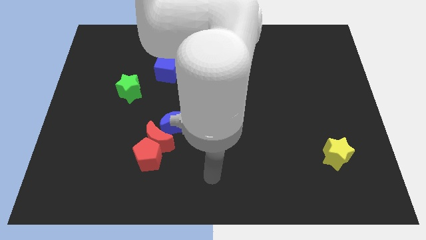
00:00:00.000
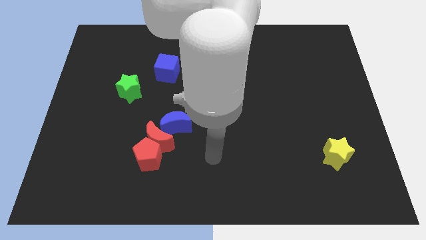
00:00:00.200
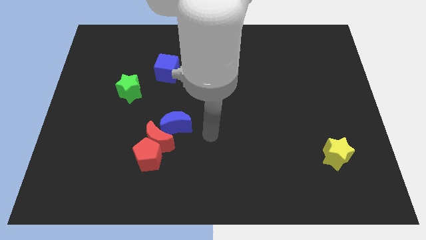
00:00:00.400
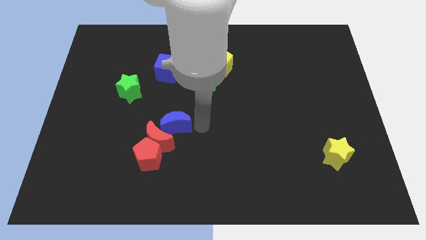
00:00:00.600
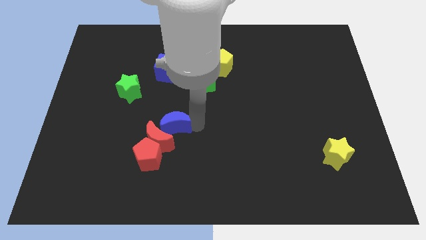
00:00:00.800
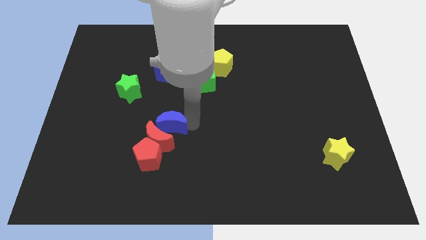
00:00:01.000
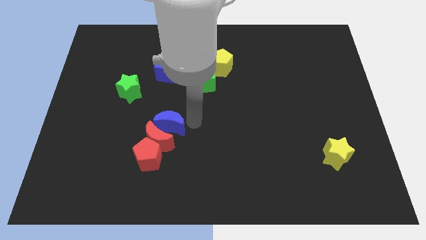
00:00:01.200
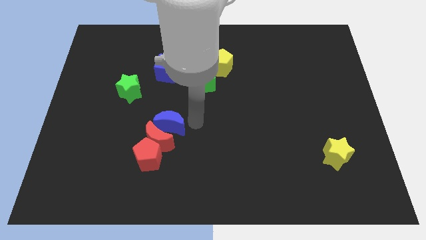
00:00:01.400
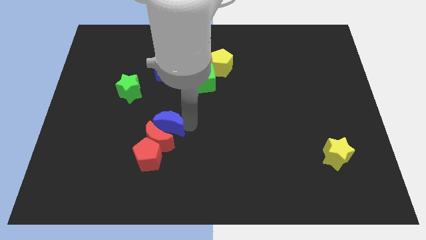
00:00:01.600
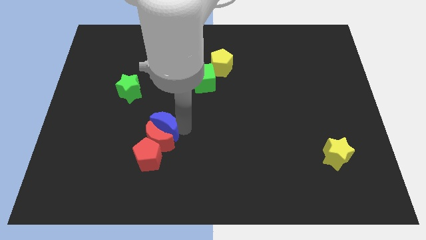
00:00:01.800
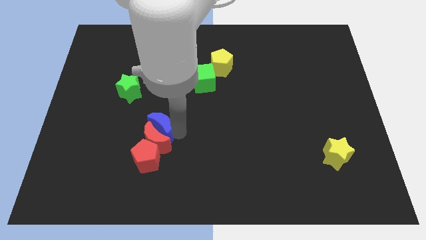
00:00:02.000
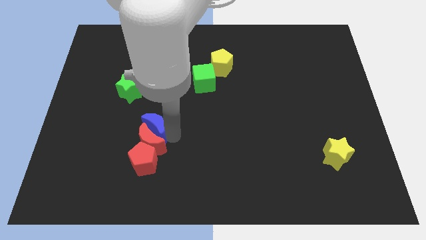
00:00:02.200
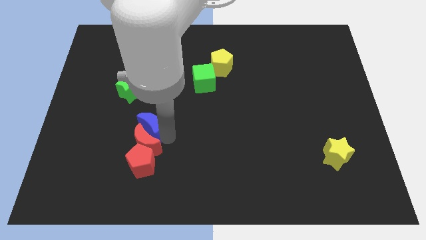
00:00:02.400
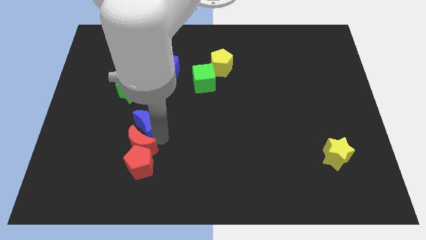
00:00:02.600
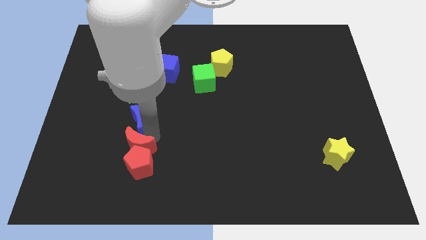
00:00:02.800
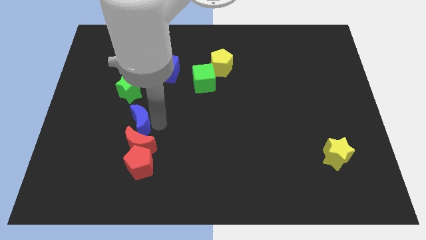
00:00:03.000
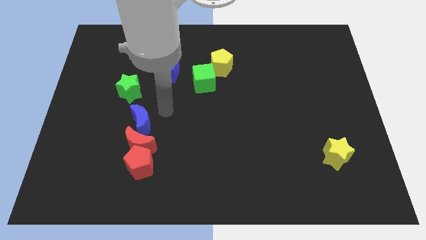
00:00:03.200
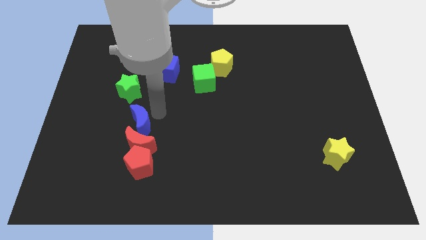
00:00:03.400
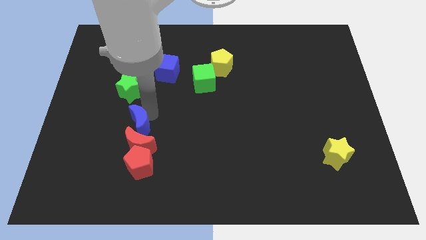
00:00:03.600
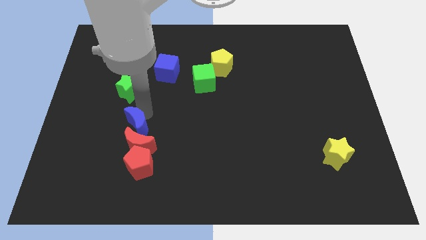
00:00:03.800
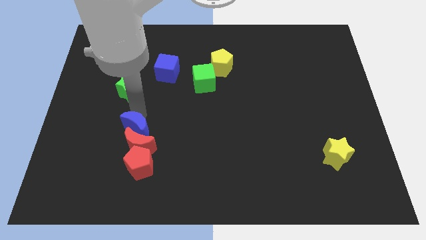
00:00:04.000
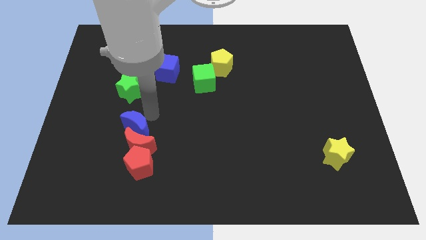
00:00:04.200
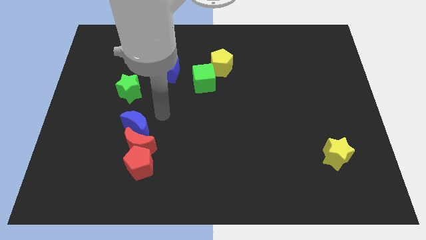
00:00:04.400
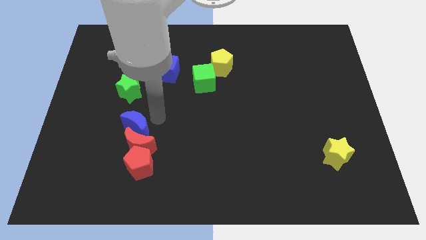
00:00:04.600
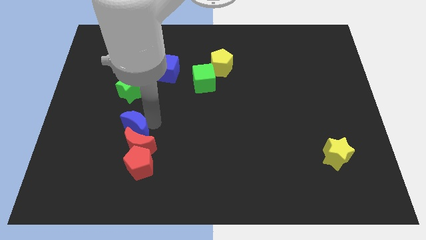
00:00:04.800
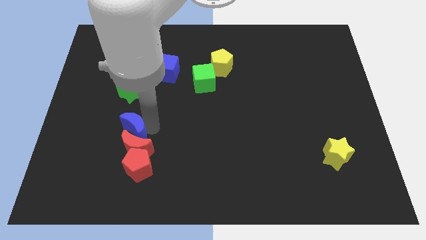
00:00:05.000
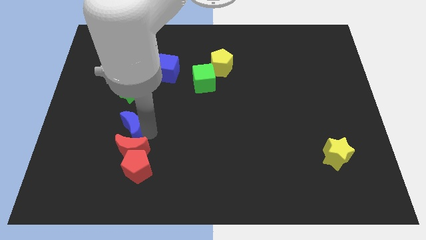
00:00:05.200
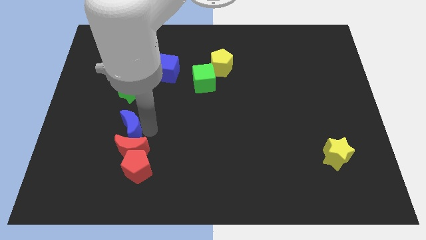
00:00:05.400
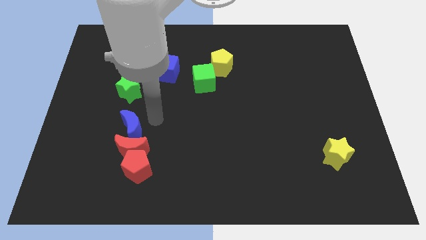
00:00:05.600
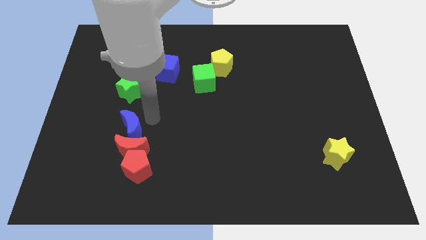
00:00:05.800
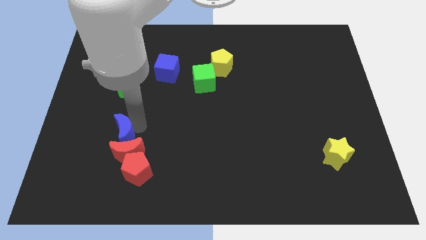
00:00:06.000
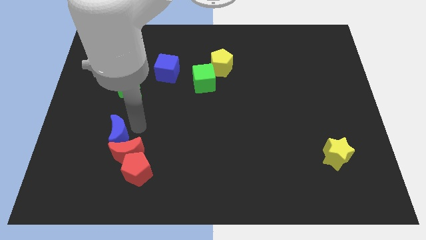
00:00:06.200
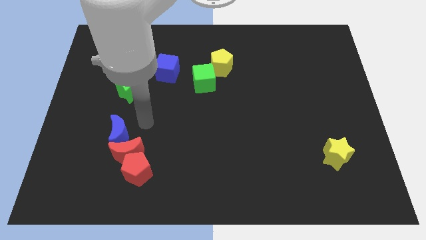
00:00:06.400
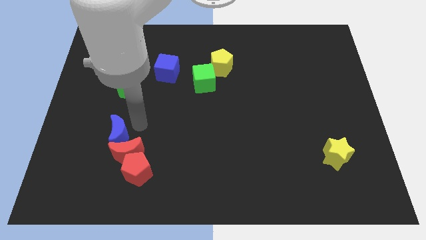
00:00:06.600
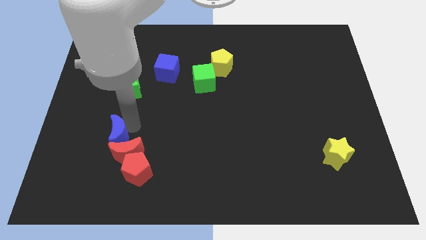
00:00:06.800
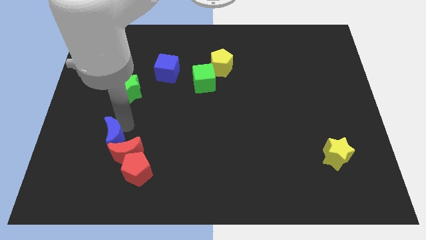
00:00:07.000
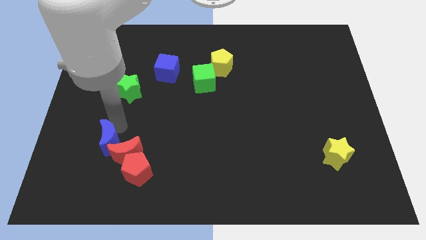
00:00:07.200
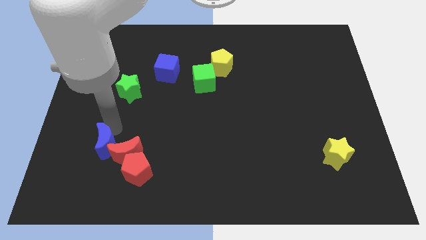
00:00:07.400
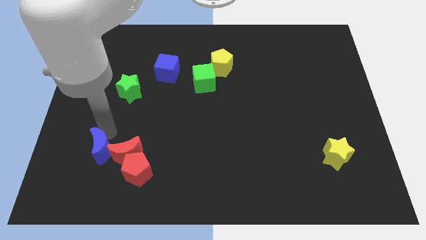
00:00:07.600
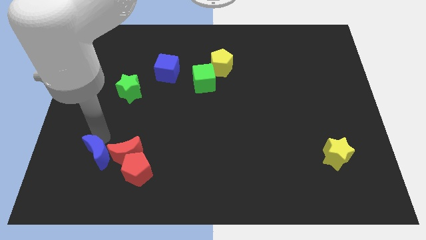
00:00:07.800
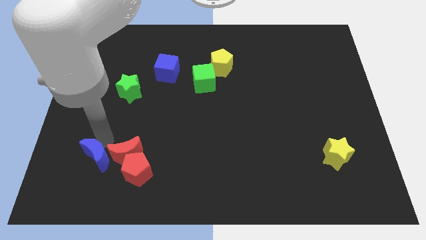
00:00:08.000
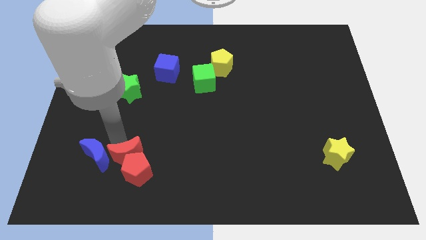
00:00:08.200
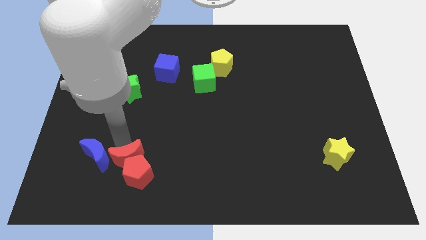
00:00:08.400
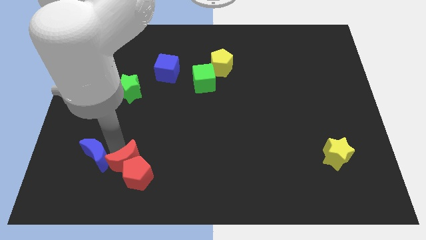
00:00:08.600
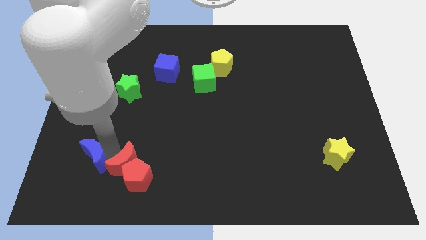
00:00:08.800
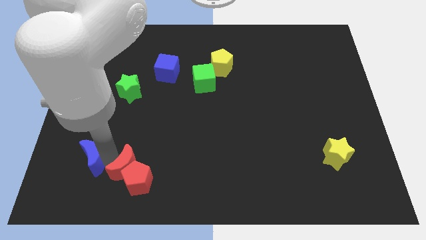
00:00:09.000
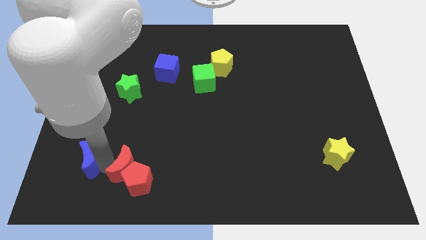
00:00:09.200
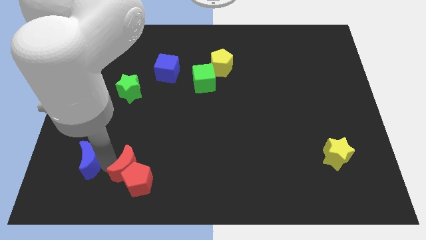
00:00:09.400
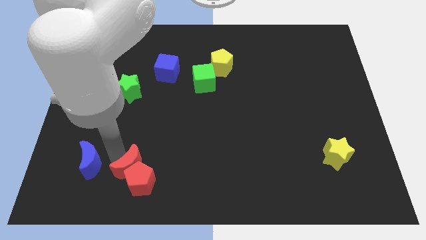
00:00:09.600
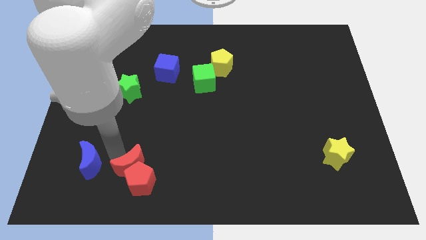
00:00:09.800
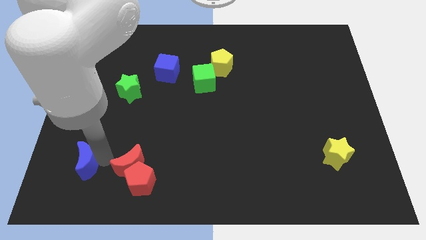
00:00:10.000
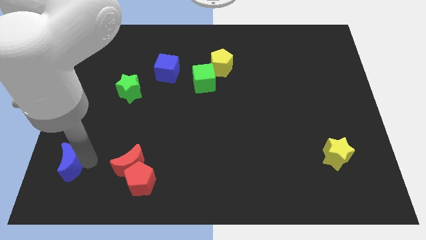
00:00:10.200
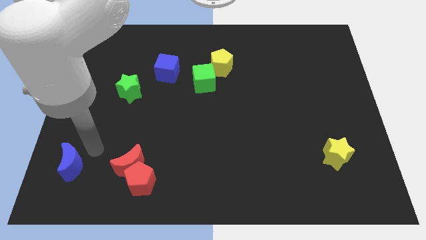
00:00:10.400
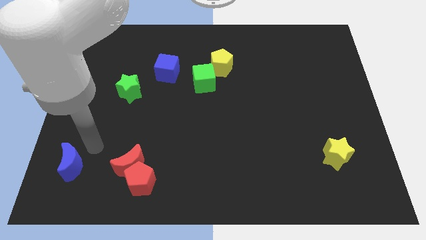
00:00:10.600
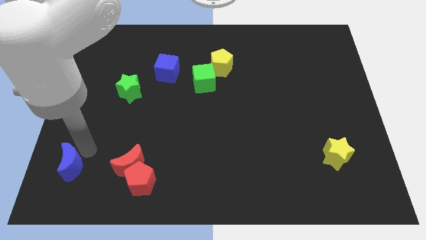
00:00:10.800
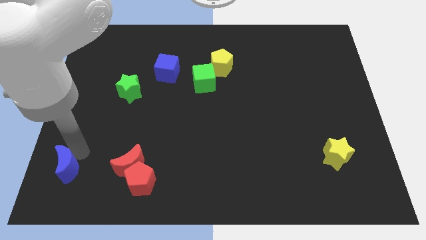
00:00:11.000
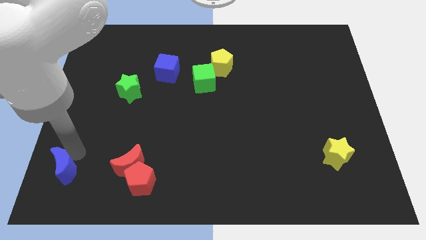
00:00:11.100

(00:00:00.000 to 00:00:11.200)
put the blue moon to the bottom left of the board
